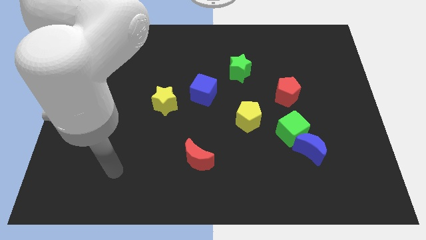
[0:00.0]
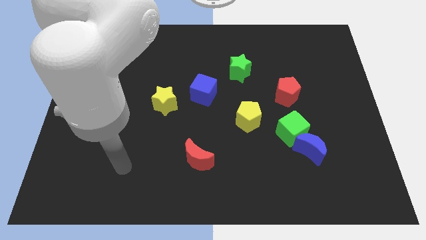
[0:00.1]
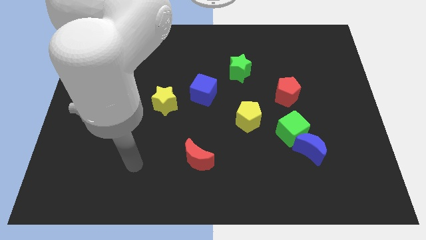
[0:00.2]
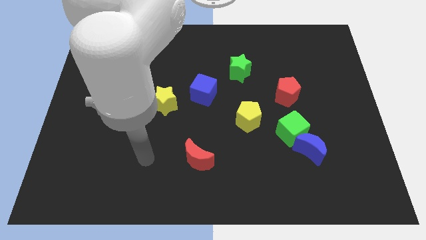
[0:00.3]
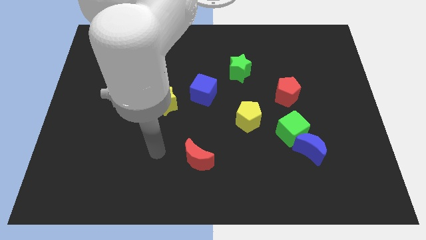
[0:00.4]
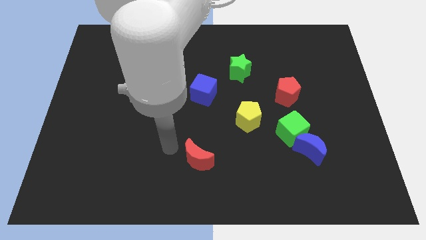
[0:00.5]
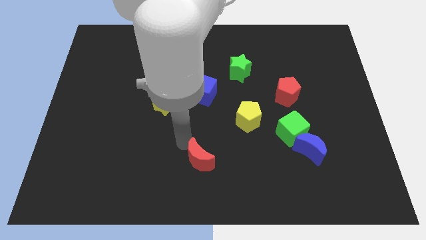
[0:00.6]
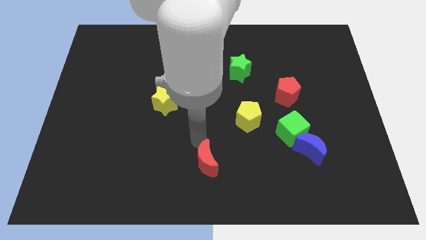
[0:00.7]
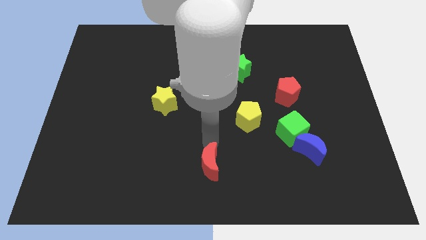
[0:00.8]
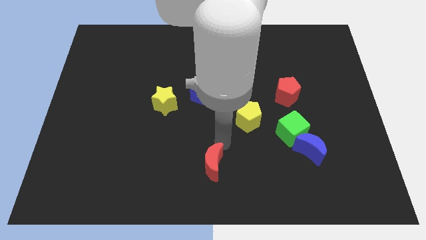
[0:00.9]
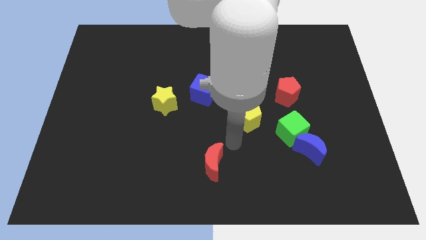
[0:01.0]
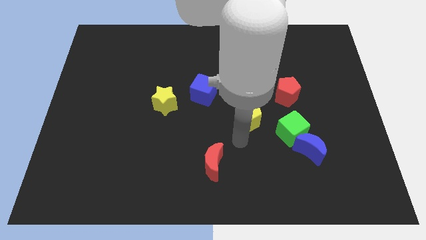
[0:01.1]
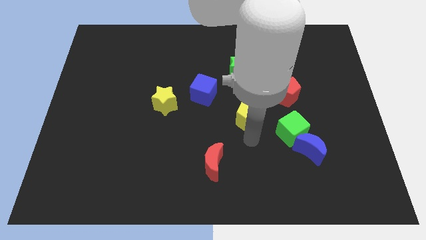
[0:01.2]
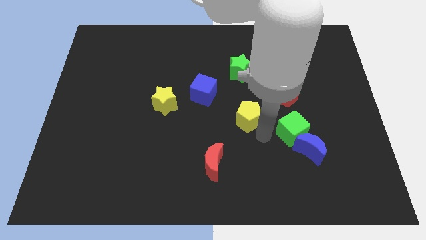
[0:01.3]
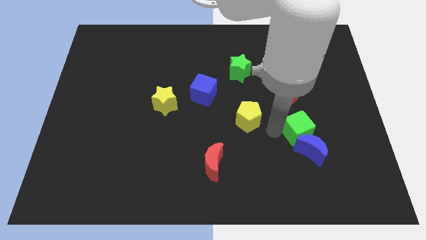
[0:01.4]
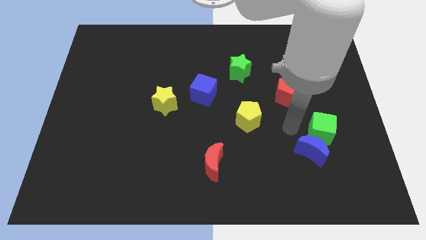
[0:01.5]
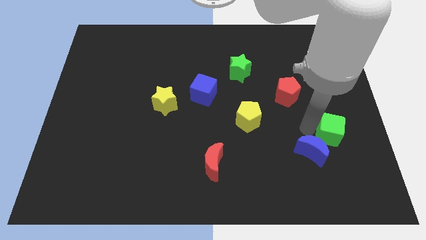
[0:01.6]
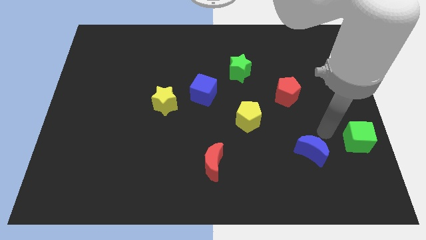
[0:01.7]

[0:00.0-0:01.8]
move the blue moon away from the green cube

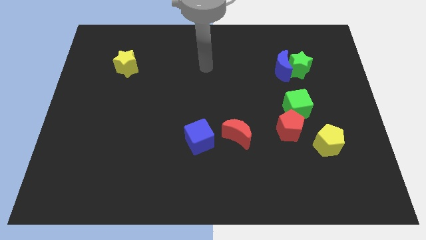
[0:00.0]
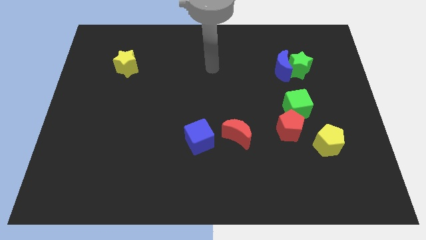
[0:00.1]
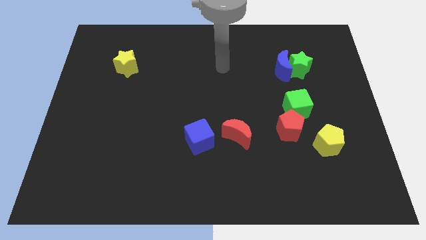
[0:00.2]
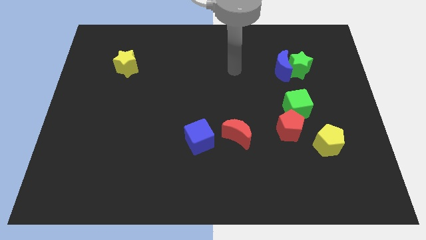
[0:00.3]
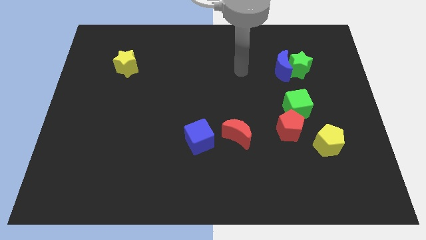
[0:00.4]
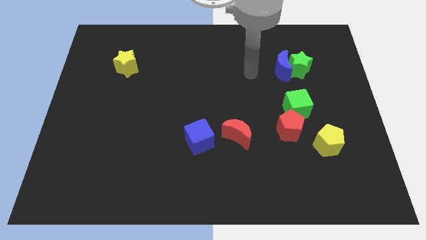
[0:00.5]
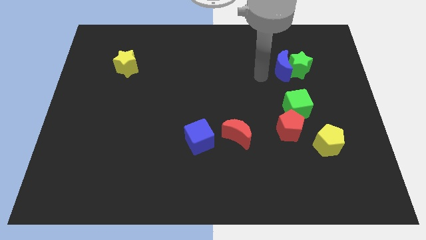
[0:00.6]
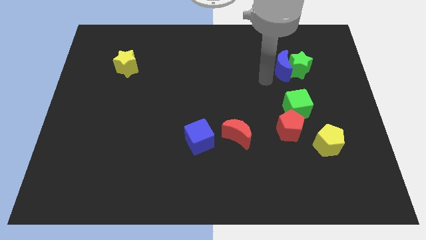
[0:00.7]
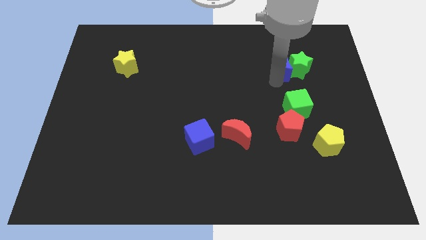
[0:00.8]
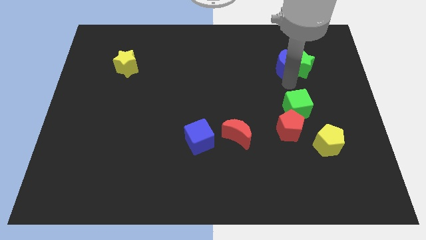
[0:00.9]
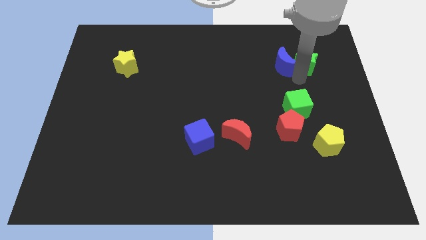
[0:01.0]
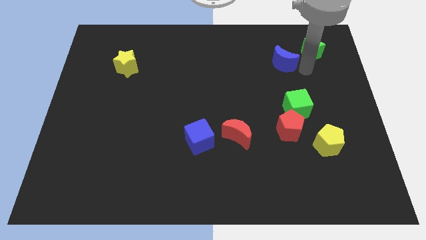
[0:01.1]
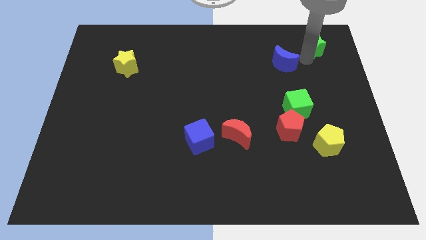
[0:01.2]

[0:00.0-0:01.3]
move the blue moon away from the green star

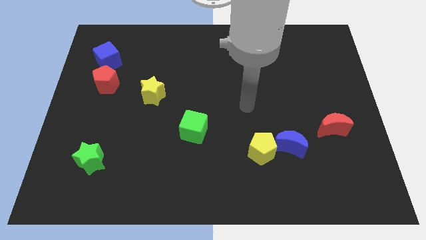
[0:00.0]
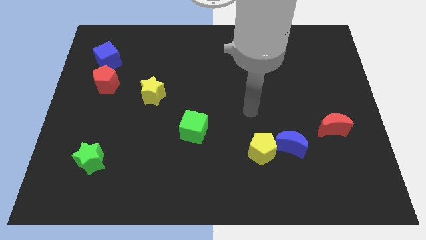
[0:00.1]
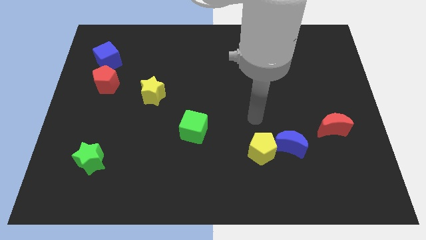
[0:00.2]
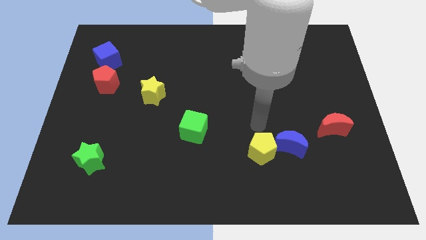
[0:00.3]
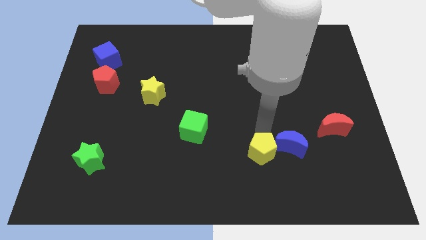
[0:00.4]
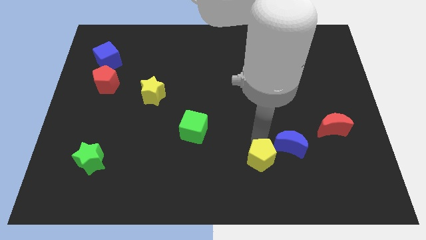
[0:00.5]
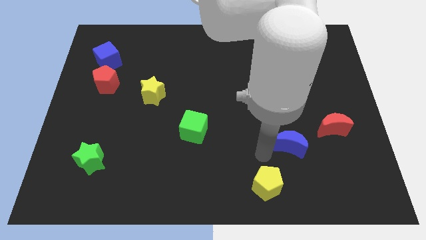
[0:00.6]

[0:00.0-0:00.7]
separate the blue moon from the yellow pentagon

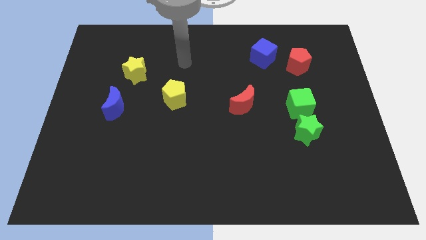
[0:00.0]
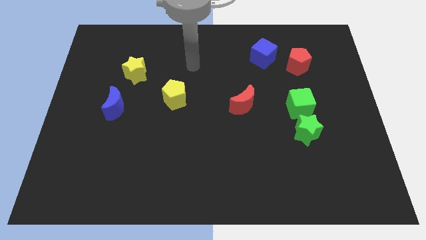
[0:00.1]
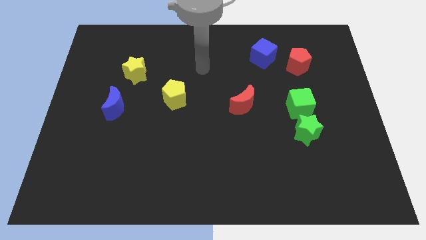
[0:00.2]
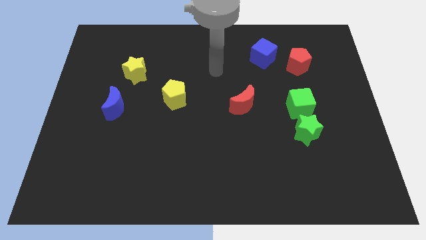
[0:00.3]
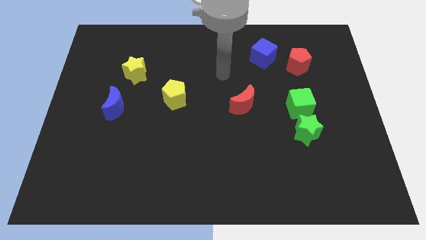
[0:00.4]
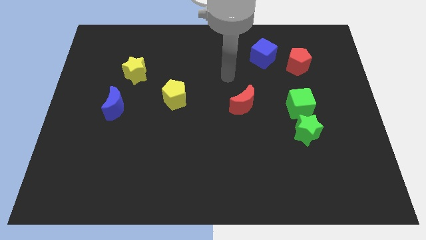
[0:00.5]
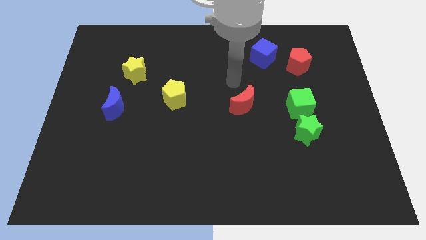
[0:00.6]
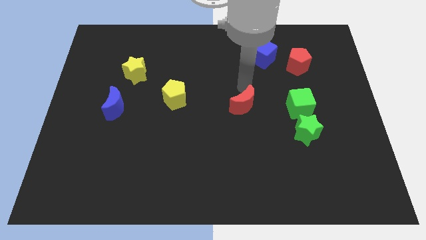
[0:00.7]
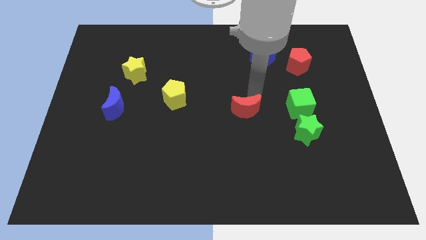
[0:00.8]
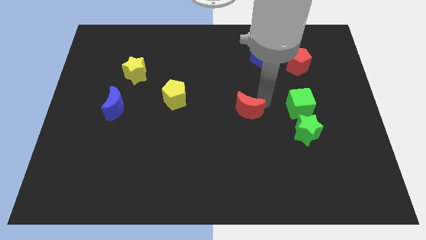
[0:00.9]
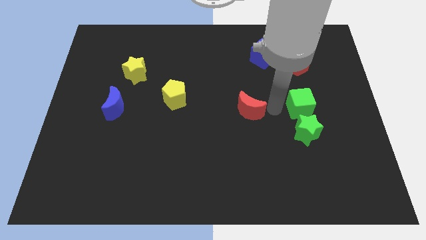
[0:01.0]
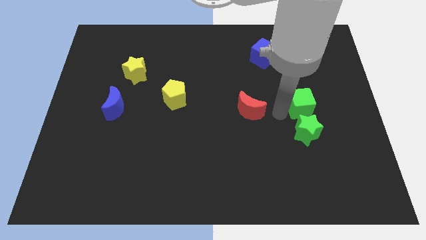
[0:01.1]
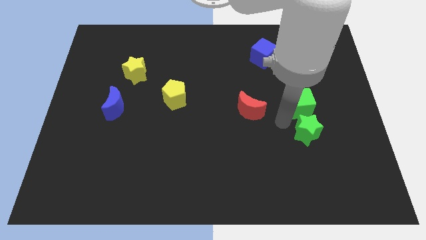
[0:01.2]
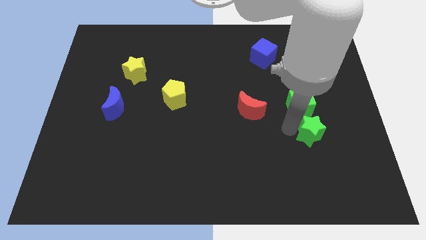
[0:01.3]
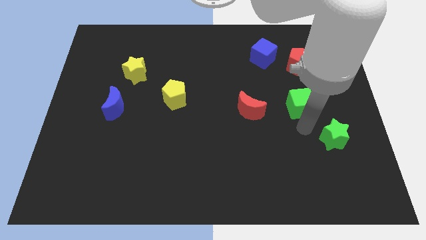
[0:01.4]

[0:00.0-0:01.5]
separate the green cube from the green star

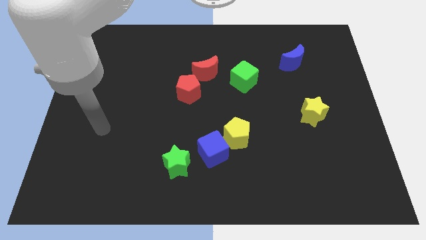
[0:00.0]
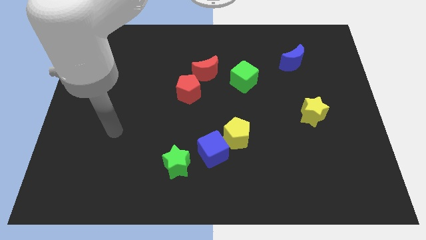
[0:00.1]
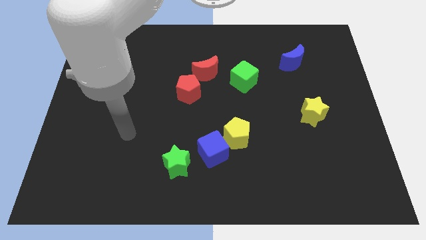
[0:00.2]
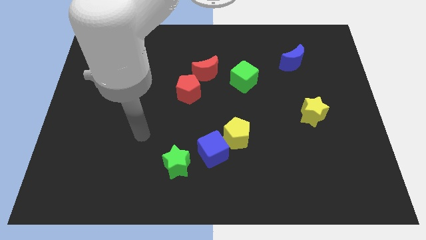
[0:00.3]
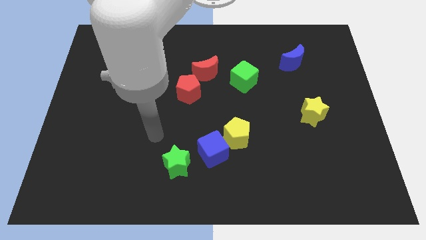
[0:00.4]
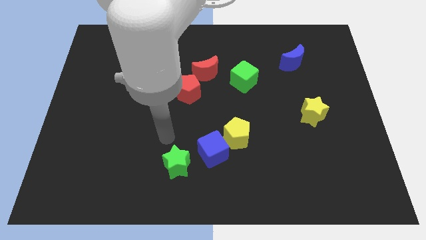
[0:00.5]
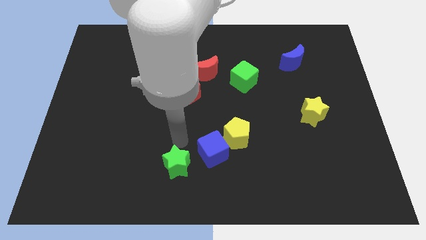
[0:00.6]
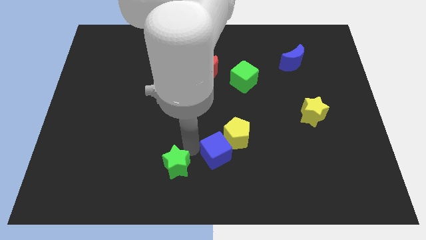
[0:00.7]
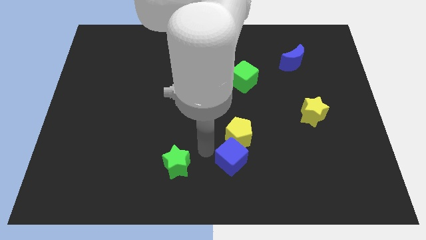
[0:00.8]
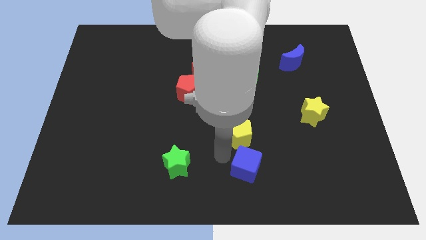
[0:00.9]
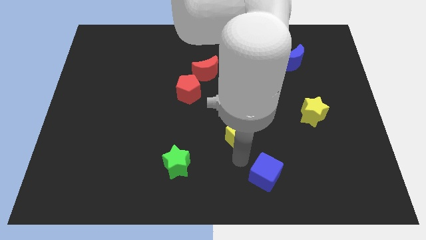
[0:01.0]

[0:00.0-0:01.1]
move the yellow pentagon away from the blue cube

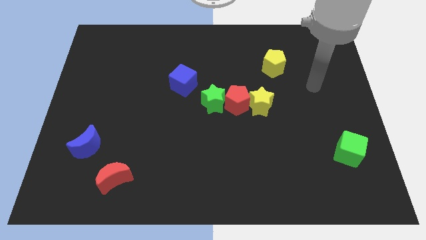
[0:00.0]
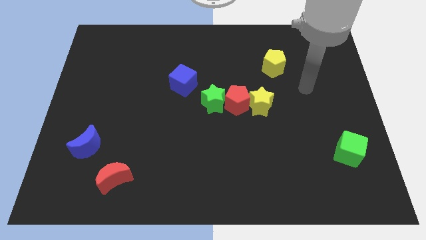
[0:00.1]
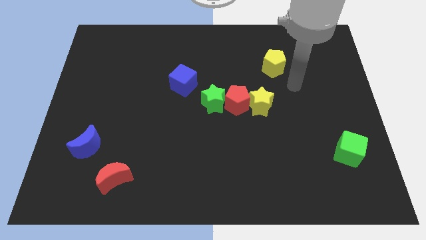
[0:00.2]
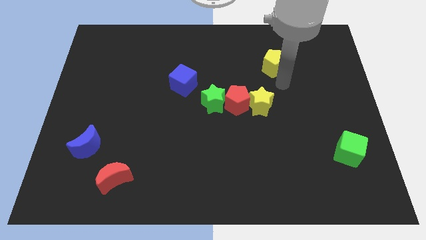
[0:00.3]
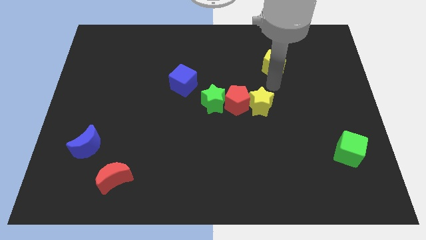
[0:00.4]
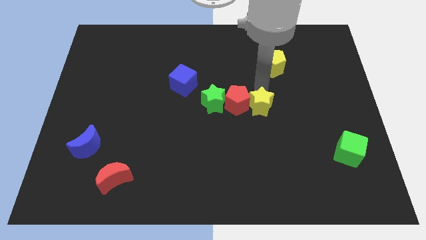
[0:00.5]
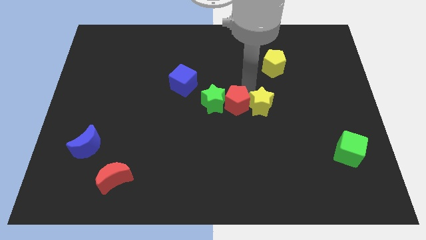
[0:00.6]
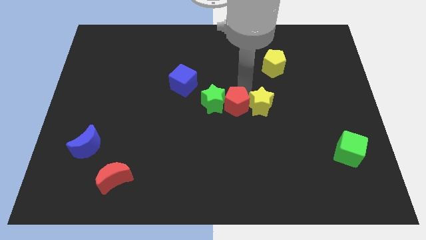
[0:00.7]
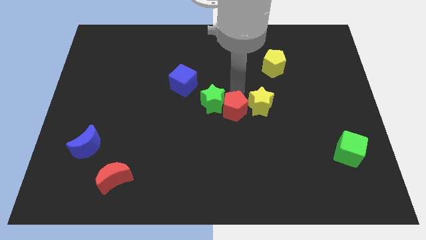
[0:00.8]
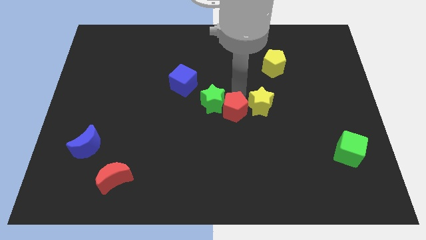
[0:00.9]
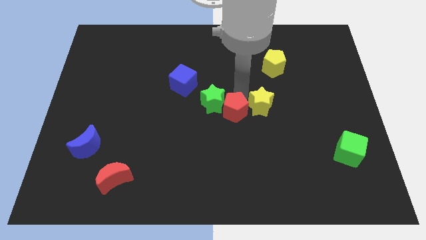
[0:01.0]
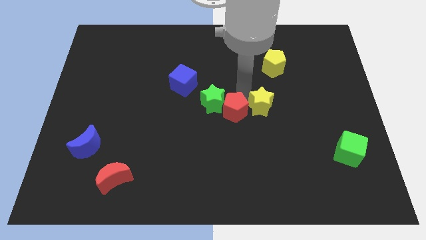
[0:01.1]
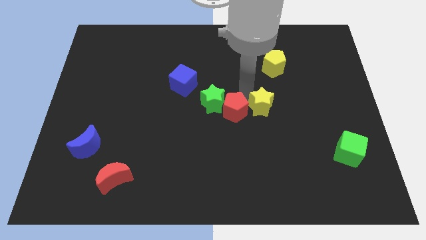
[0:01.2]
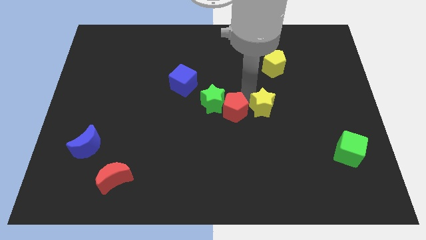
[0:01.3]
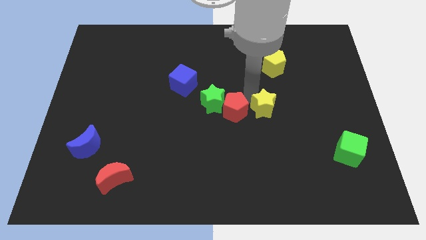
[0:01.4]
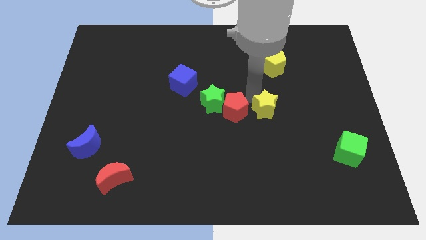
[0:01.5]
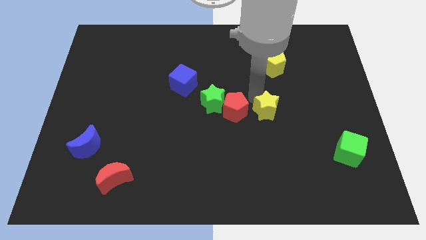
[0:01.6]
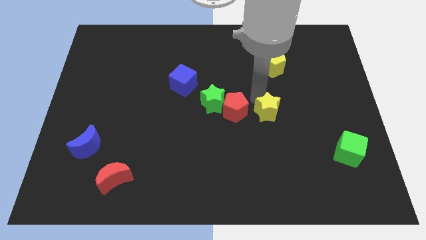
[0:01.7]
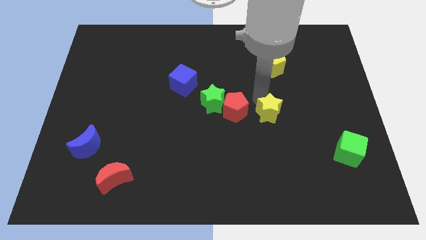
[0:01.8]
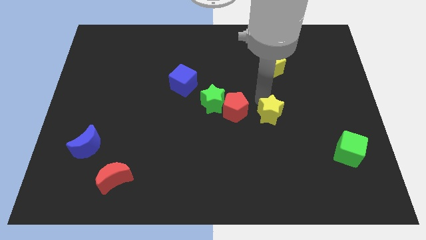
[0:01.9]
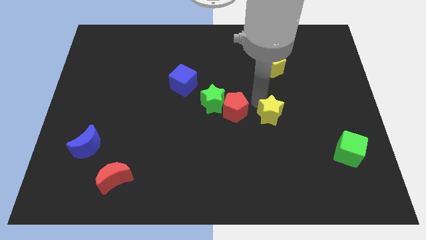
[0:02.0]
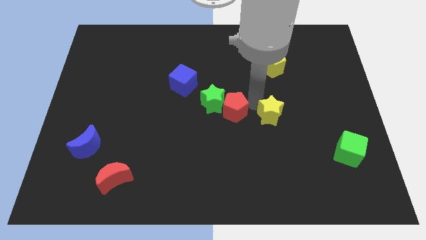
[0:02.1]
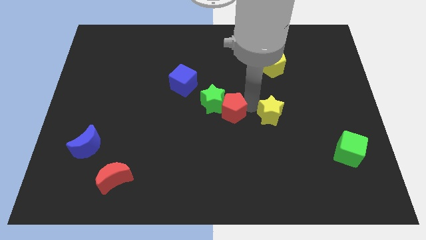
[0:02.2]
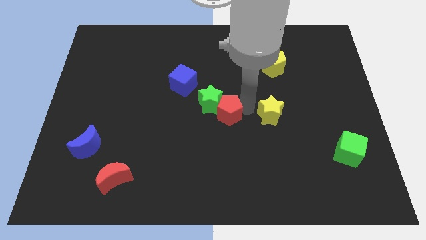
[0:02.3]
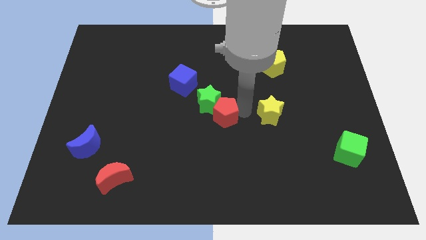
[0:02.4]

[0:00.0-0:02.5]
pull the yellow star apart from the red pentagon

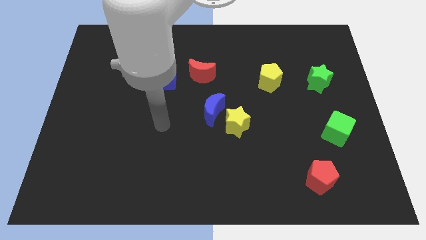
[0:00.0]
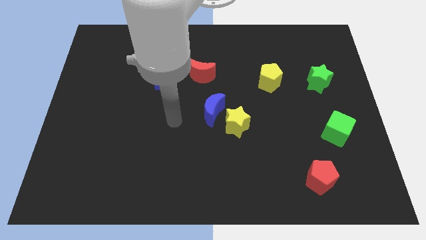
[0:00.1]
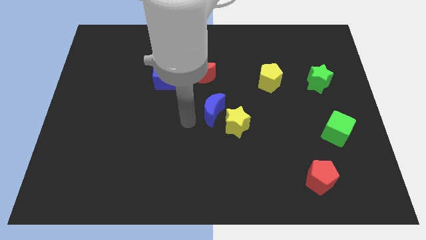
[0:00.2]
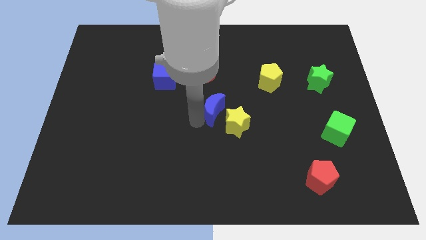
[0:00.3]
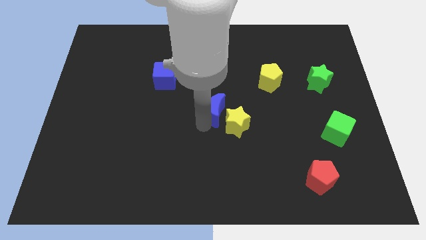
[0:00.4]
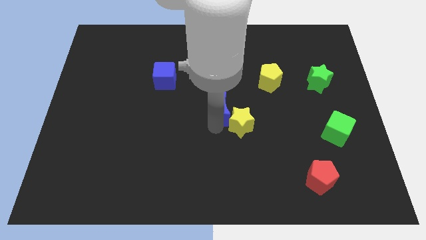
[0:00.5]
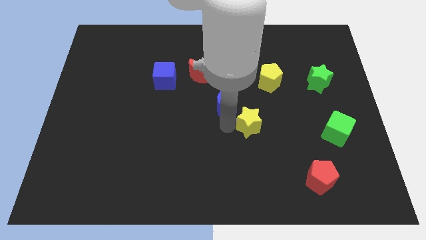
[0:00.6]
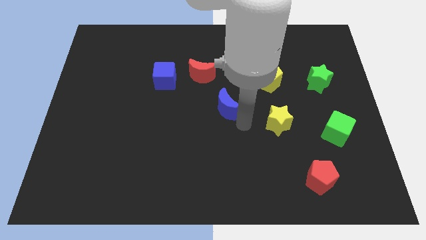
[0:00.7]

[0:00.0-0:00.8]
move the blue moon away from the yellow star
